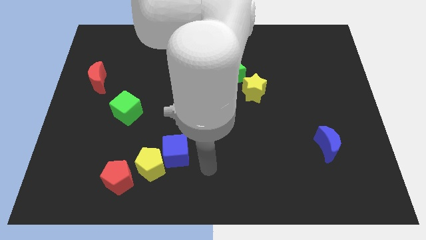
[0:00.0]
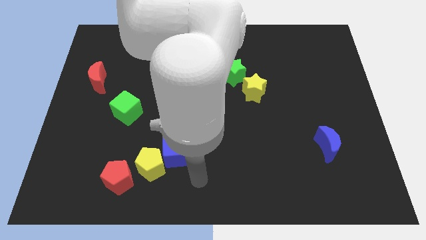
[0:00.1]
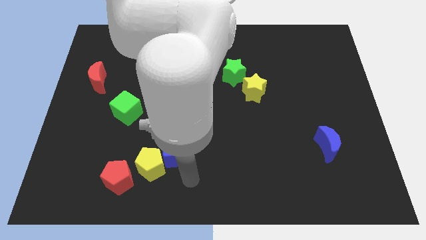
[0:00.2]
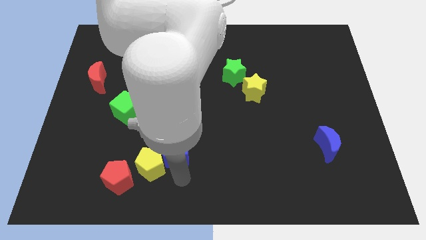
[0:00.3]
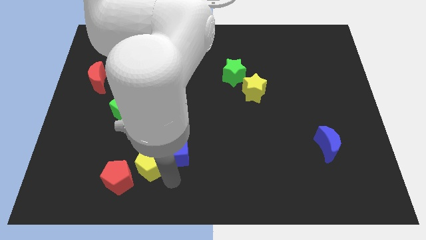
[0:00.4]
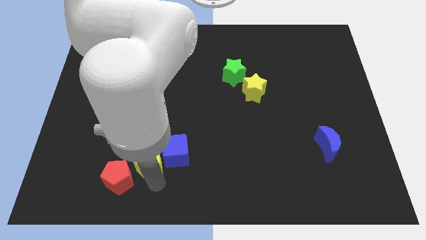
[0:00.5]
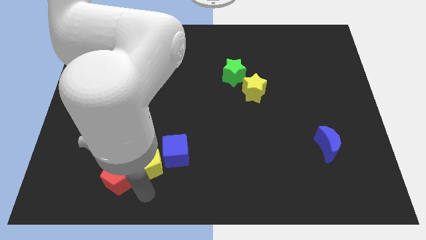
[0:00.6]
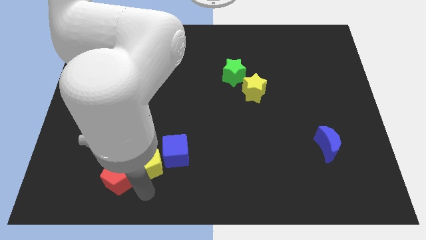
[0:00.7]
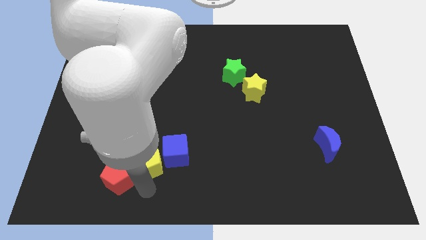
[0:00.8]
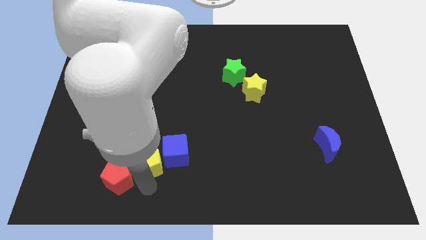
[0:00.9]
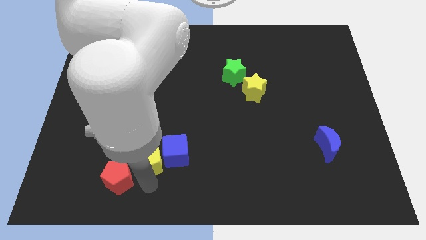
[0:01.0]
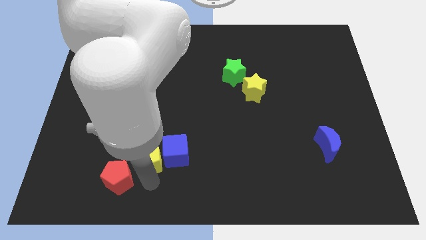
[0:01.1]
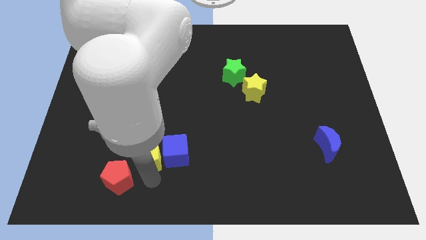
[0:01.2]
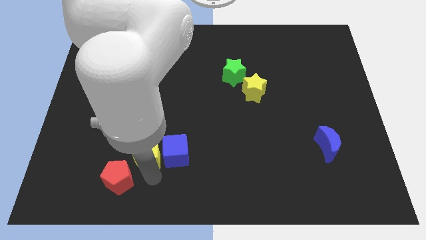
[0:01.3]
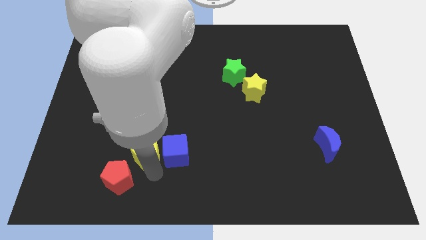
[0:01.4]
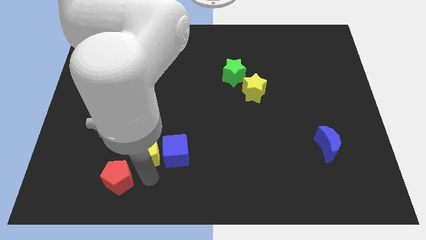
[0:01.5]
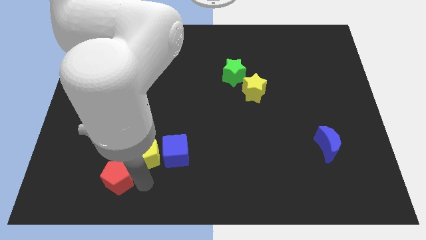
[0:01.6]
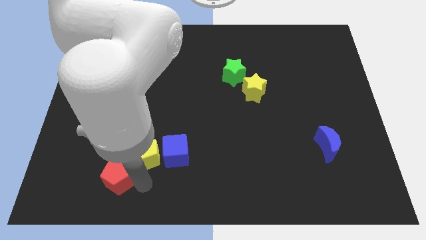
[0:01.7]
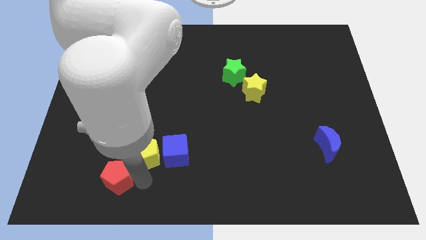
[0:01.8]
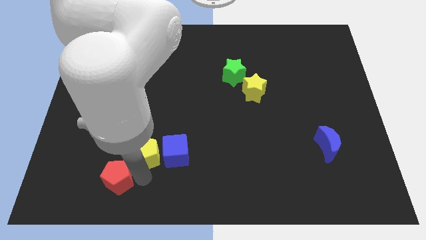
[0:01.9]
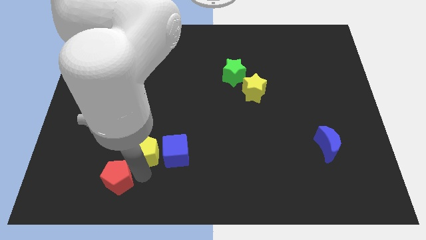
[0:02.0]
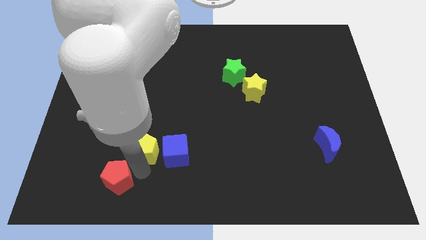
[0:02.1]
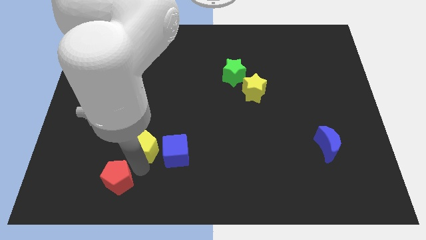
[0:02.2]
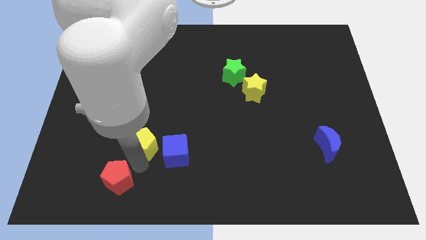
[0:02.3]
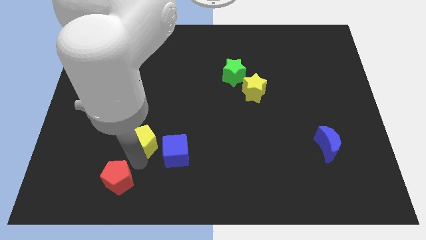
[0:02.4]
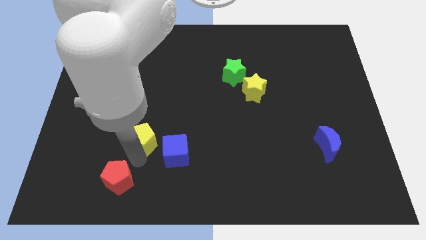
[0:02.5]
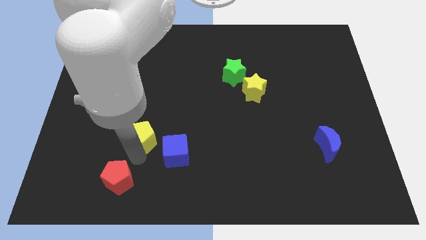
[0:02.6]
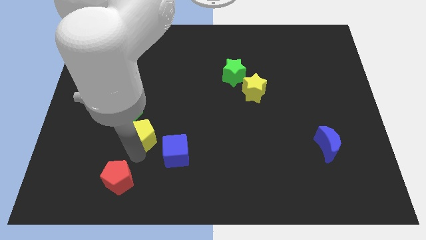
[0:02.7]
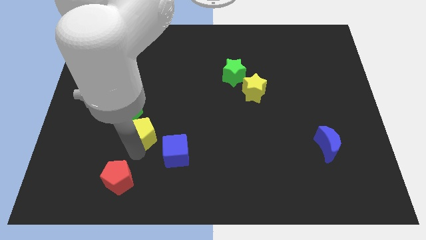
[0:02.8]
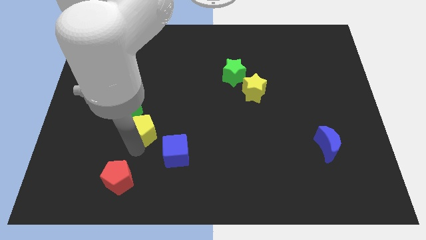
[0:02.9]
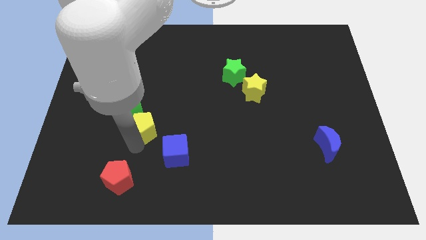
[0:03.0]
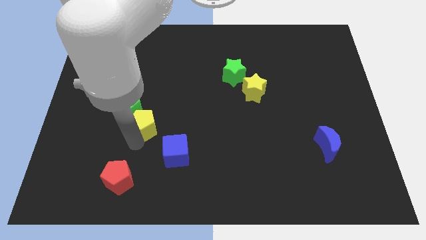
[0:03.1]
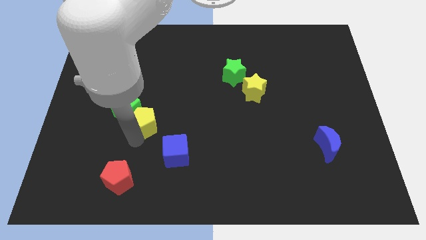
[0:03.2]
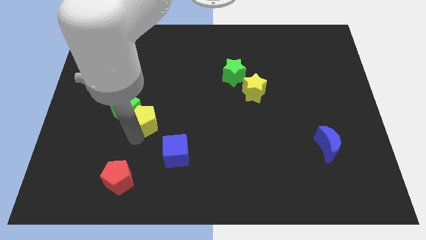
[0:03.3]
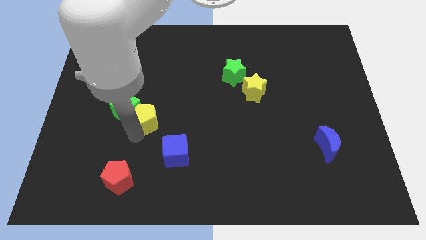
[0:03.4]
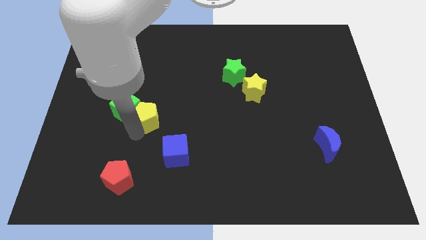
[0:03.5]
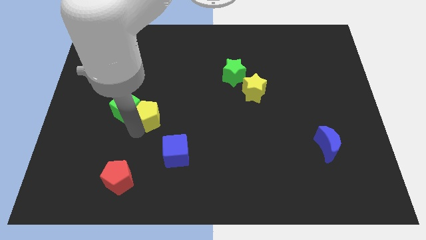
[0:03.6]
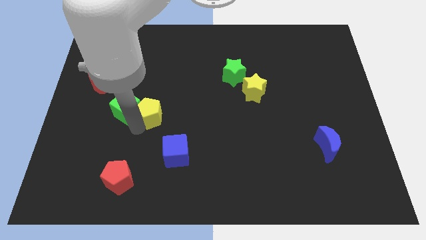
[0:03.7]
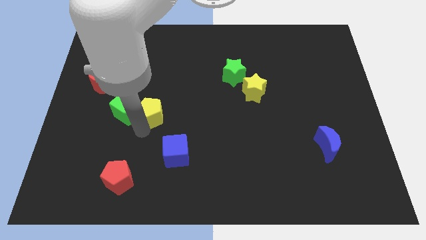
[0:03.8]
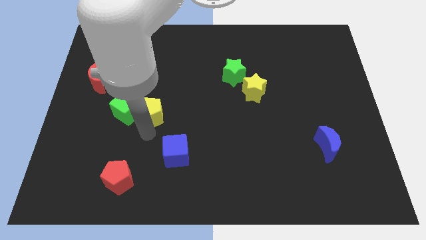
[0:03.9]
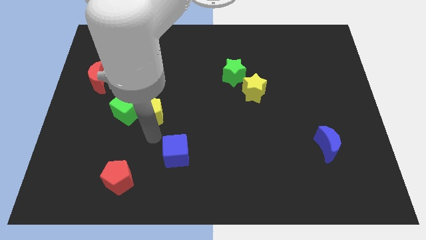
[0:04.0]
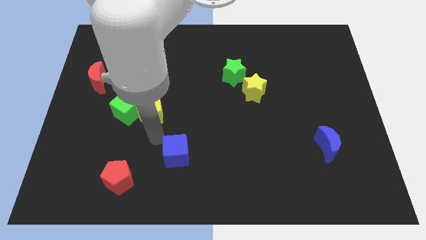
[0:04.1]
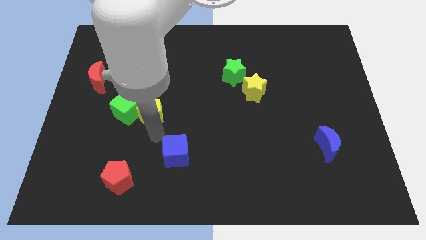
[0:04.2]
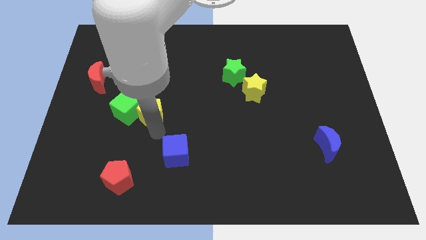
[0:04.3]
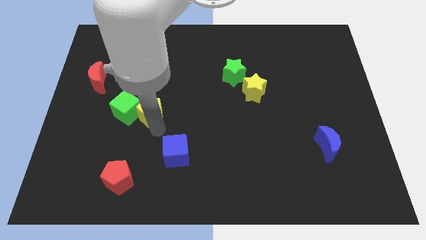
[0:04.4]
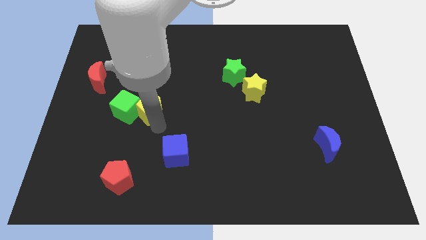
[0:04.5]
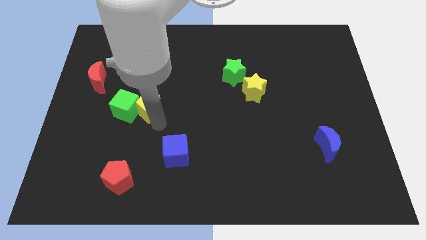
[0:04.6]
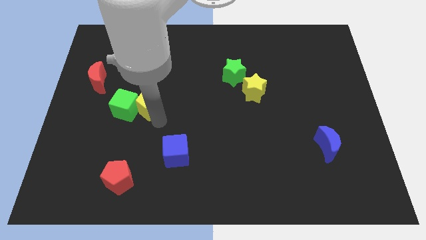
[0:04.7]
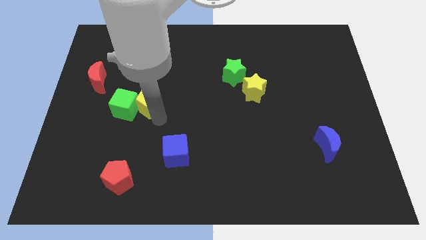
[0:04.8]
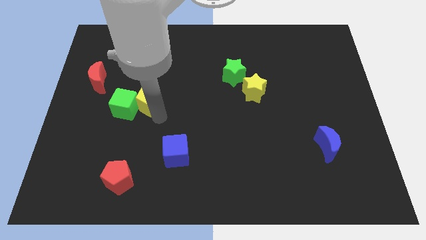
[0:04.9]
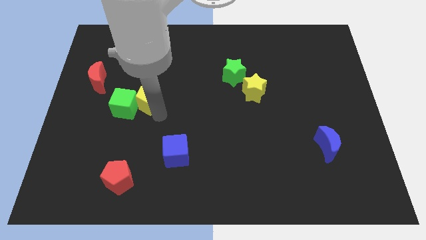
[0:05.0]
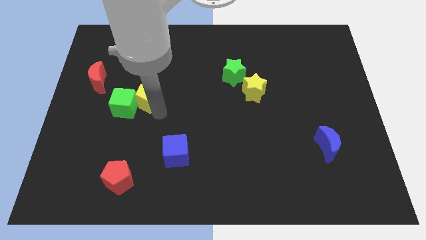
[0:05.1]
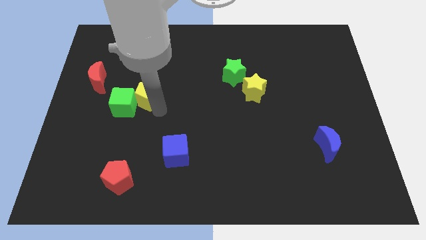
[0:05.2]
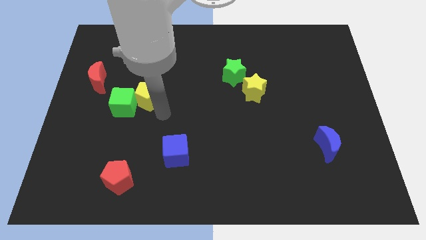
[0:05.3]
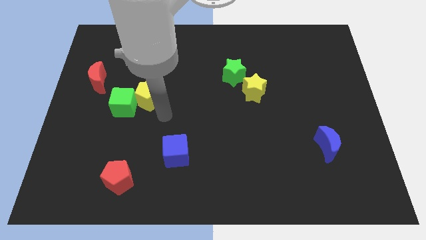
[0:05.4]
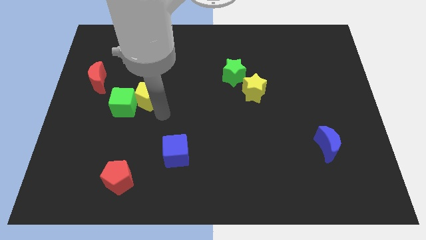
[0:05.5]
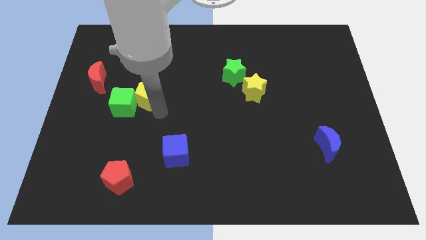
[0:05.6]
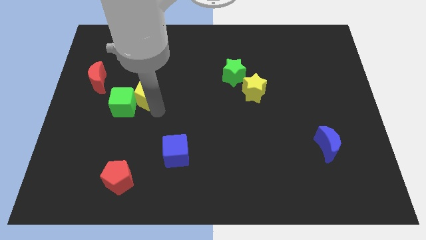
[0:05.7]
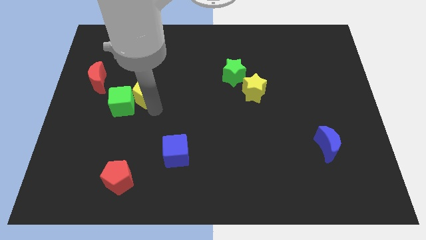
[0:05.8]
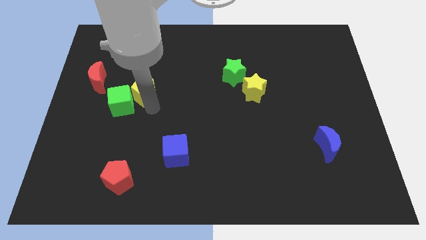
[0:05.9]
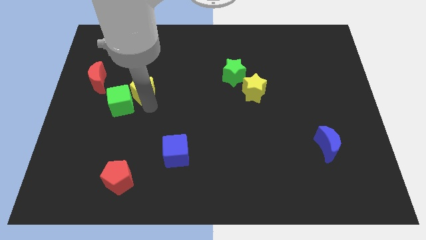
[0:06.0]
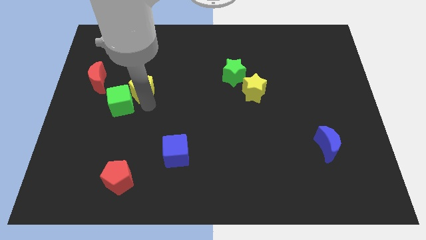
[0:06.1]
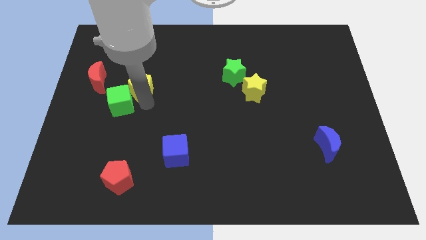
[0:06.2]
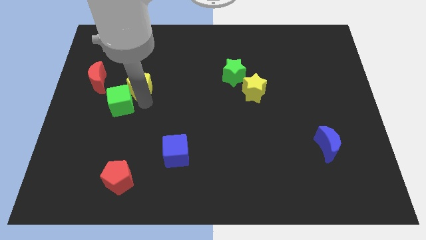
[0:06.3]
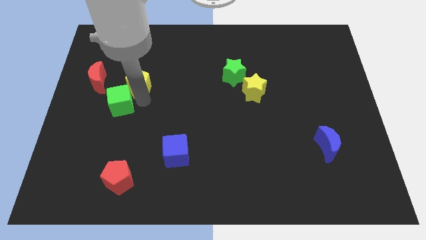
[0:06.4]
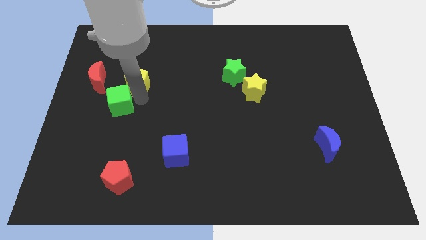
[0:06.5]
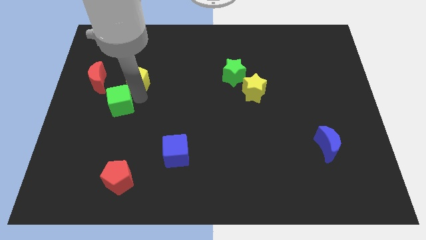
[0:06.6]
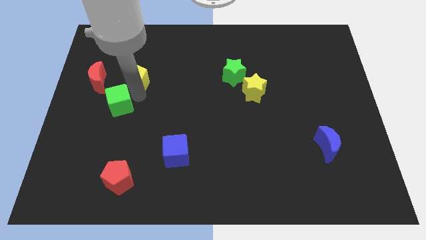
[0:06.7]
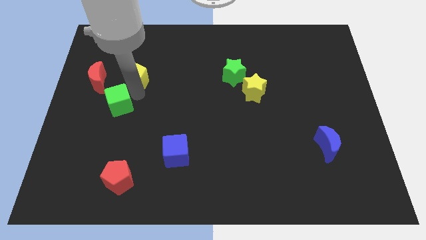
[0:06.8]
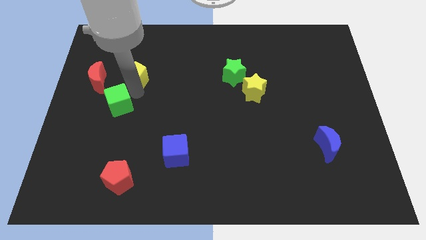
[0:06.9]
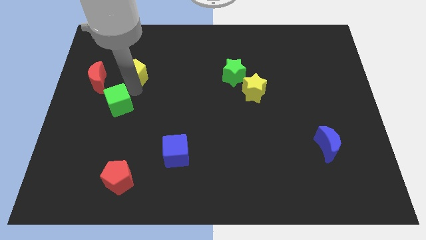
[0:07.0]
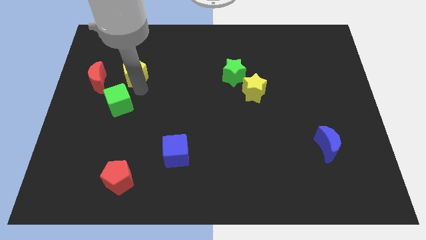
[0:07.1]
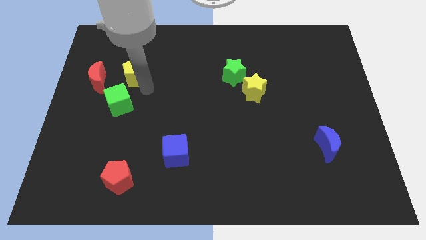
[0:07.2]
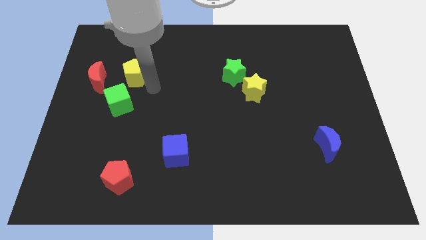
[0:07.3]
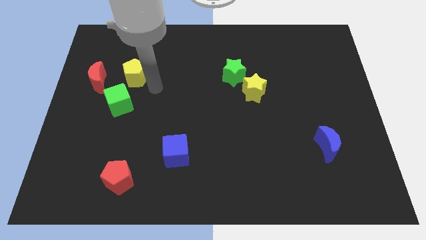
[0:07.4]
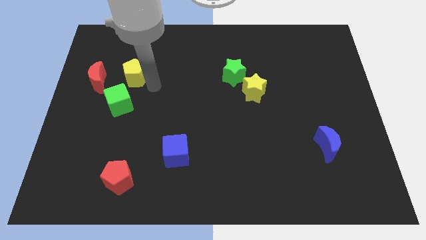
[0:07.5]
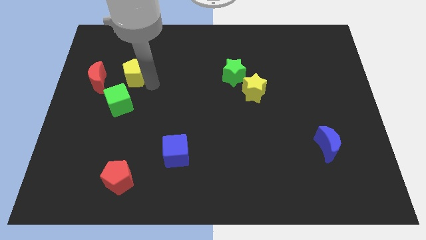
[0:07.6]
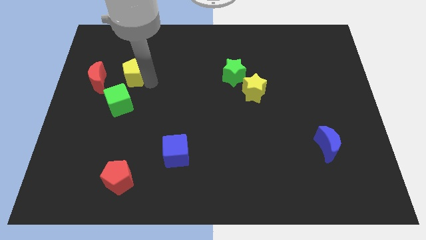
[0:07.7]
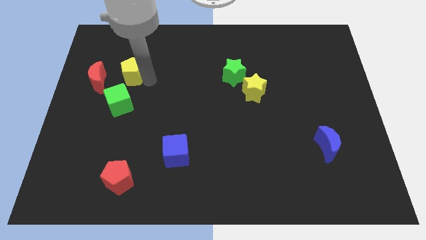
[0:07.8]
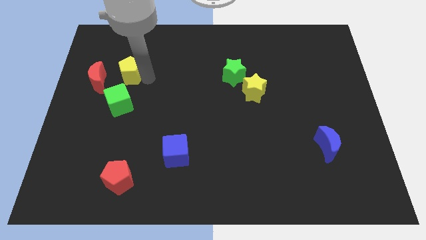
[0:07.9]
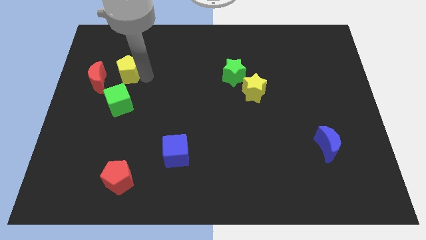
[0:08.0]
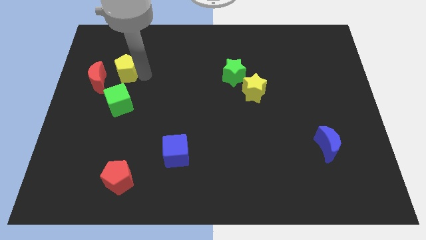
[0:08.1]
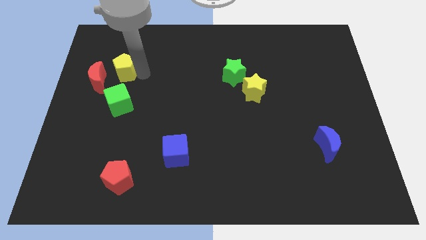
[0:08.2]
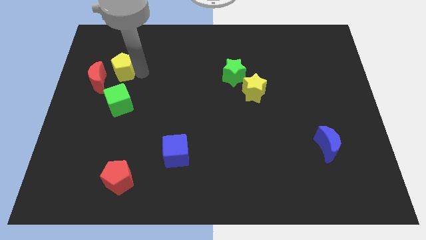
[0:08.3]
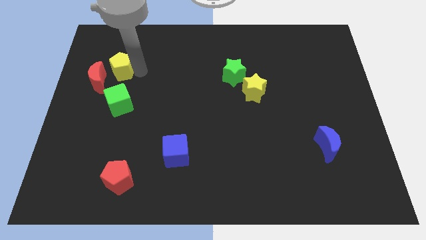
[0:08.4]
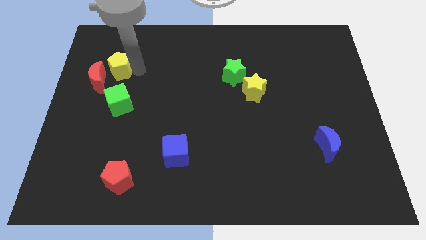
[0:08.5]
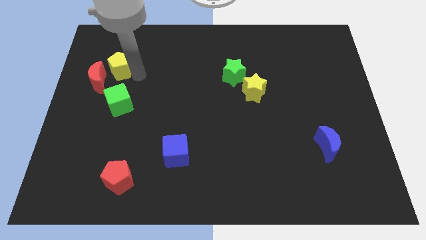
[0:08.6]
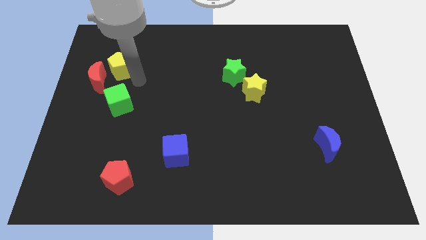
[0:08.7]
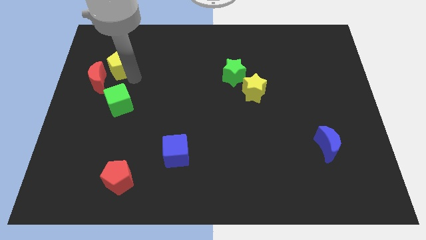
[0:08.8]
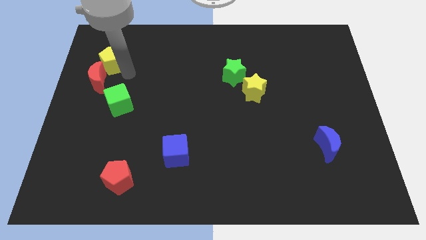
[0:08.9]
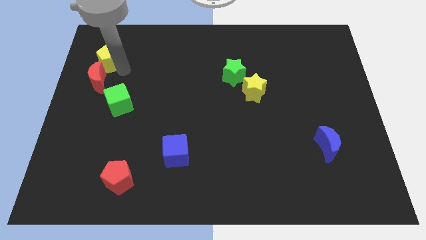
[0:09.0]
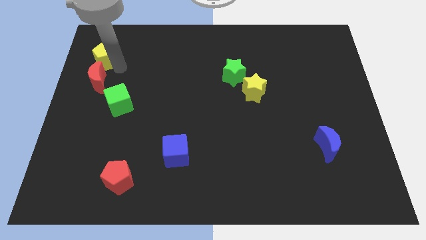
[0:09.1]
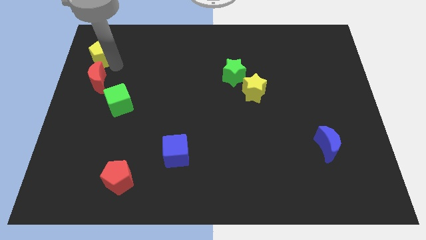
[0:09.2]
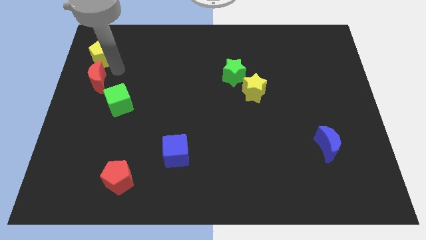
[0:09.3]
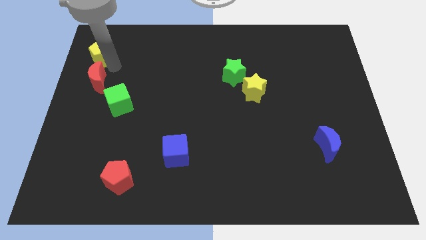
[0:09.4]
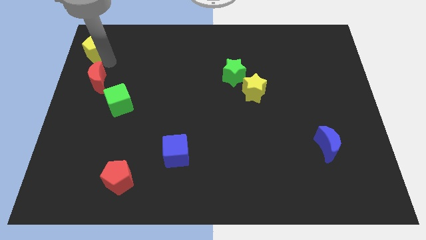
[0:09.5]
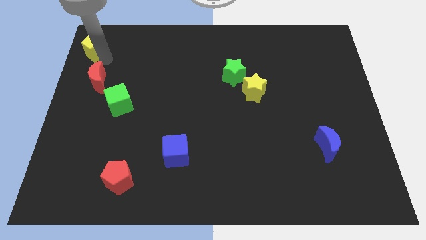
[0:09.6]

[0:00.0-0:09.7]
put the yellow pentagon to the upper left corner
